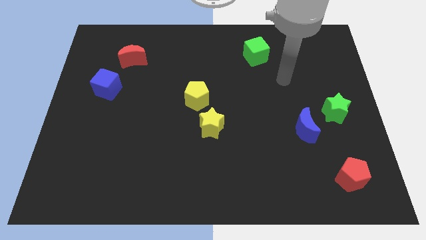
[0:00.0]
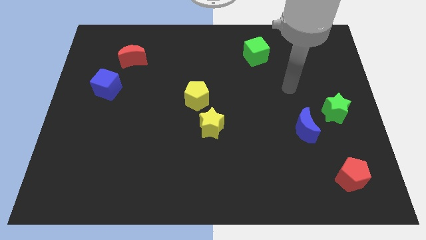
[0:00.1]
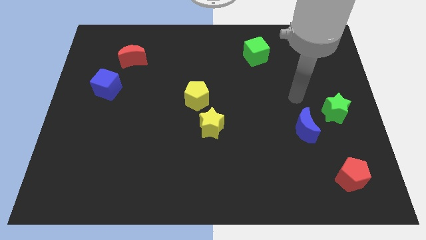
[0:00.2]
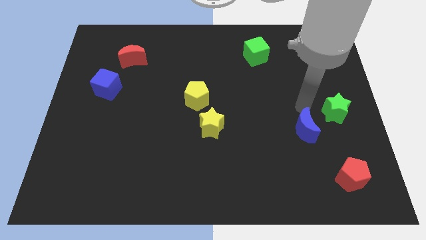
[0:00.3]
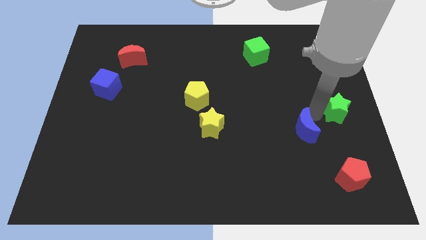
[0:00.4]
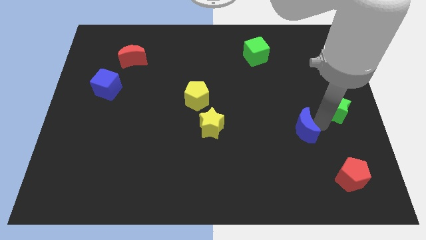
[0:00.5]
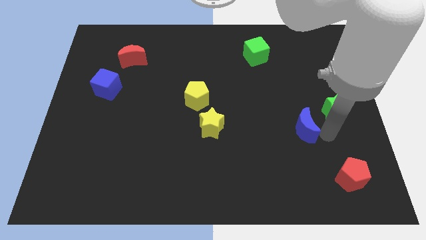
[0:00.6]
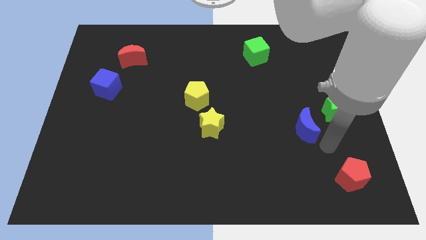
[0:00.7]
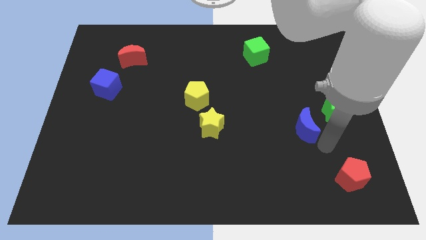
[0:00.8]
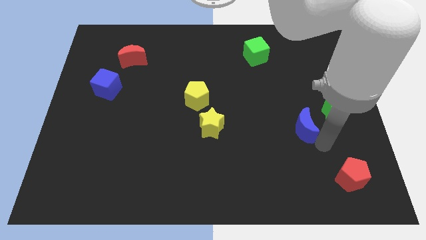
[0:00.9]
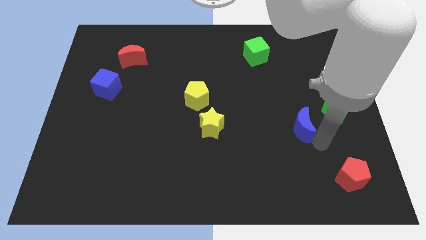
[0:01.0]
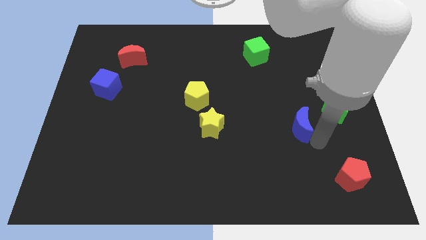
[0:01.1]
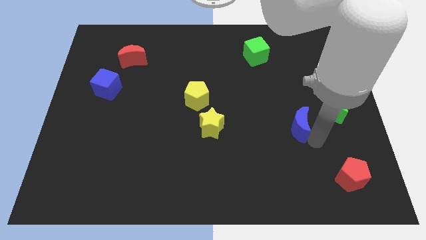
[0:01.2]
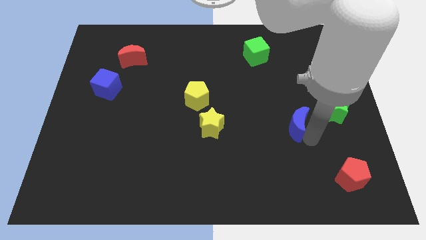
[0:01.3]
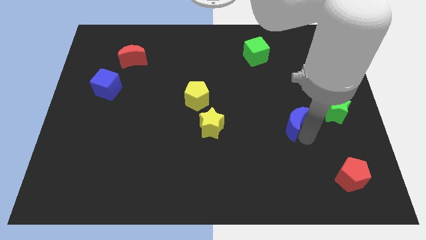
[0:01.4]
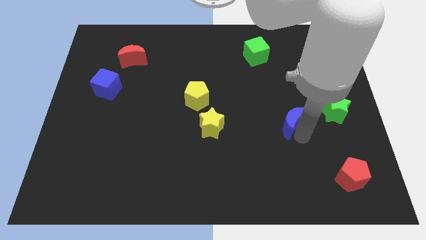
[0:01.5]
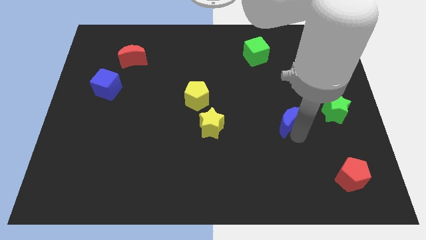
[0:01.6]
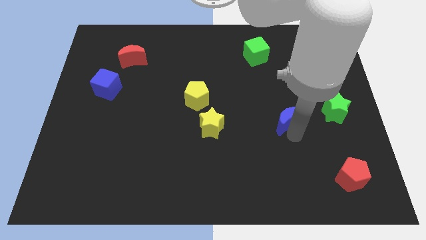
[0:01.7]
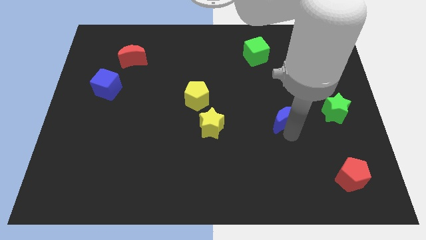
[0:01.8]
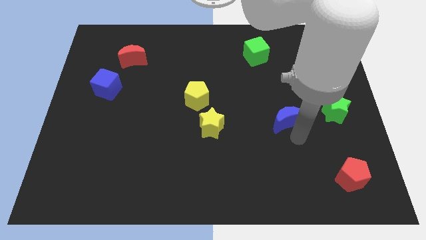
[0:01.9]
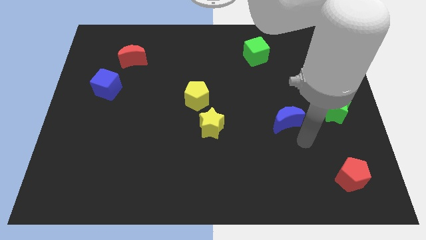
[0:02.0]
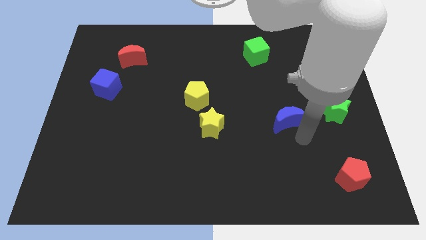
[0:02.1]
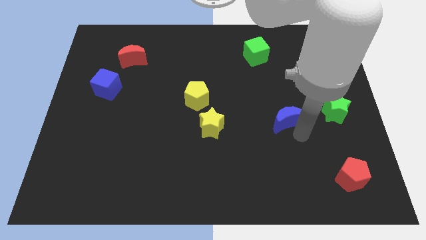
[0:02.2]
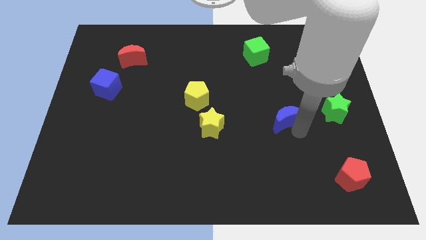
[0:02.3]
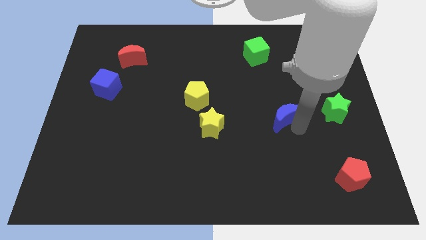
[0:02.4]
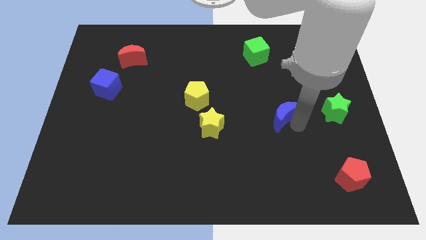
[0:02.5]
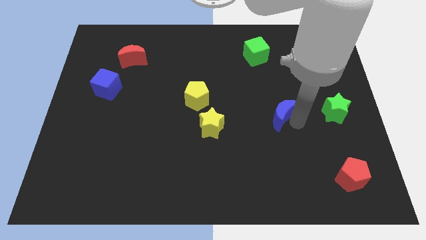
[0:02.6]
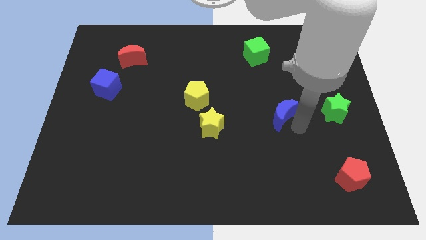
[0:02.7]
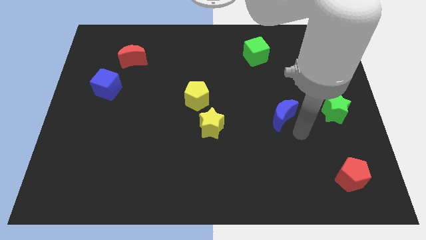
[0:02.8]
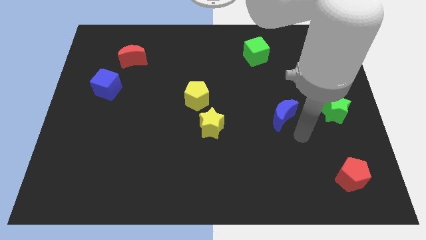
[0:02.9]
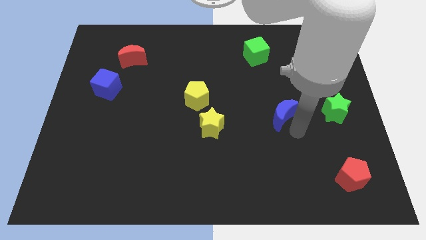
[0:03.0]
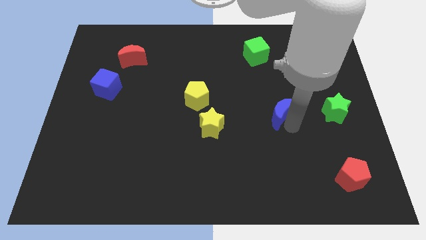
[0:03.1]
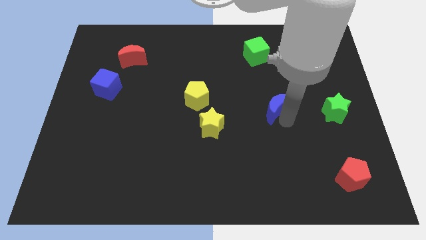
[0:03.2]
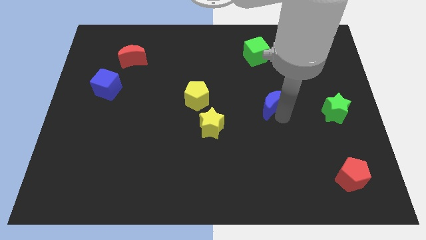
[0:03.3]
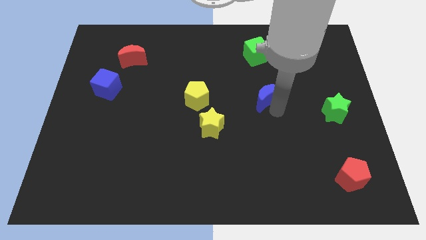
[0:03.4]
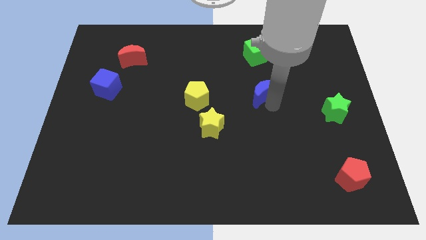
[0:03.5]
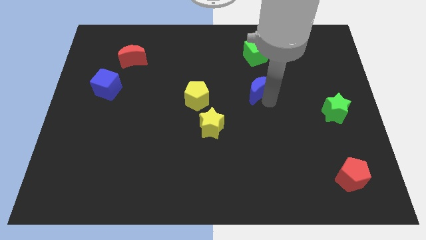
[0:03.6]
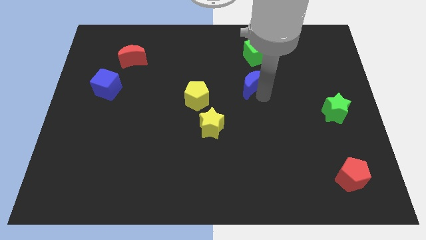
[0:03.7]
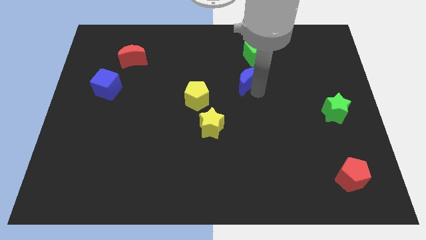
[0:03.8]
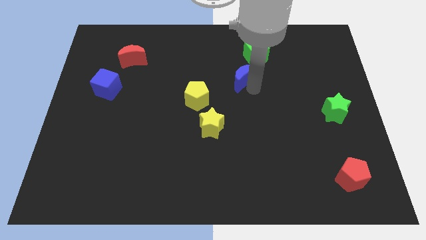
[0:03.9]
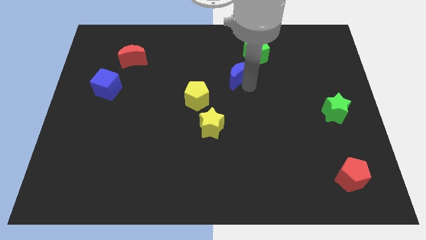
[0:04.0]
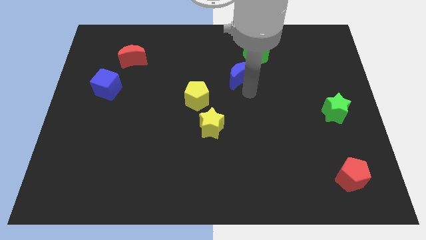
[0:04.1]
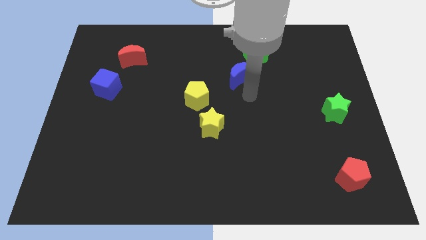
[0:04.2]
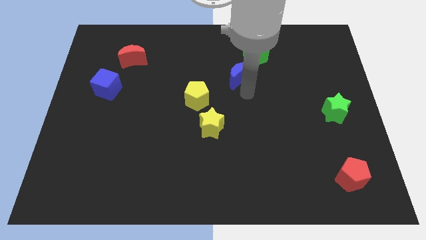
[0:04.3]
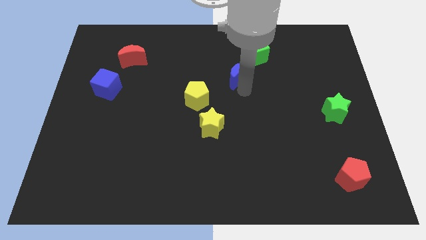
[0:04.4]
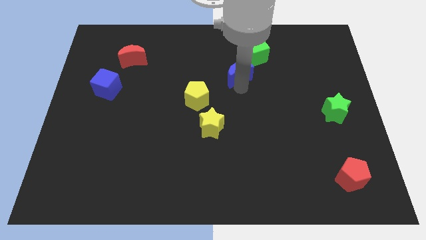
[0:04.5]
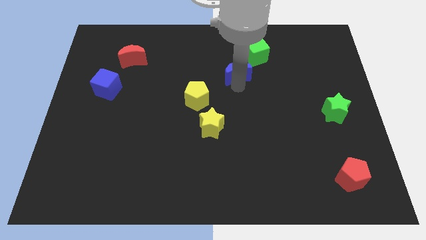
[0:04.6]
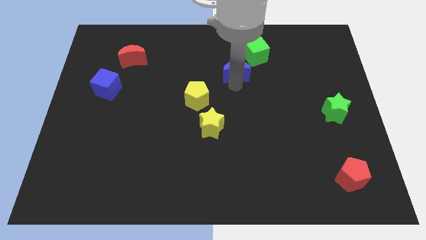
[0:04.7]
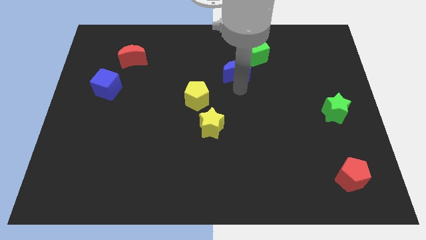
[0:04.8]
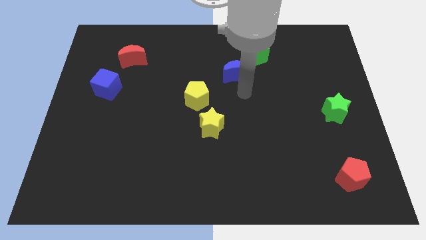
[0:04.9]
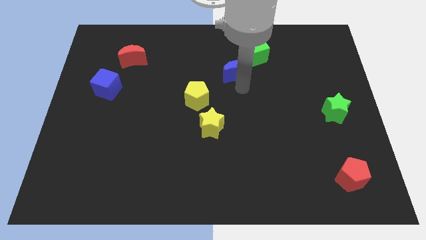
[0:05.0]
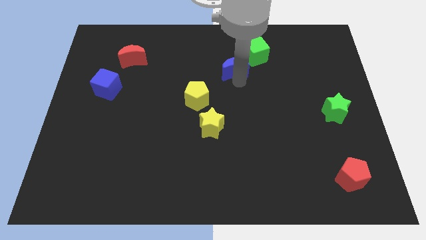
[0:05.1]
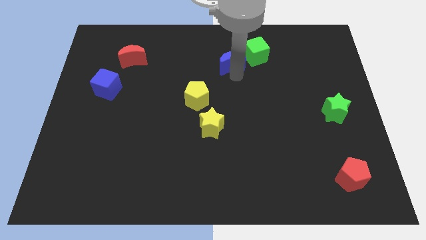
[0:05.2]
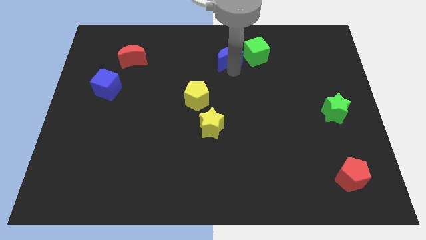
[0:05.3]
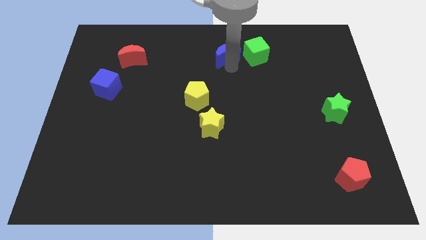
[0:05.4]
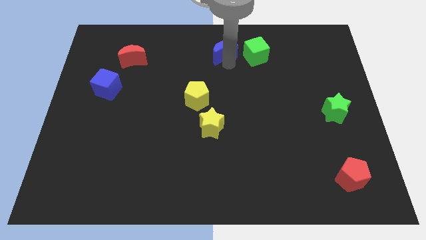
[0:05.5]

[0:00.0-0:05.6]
push the blue moon to the top side

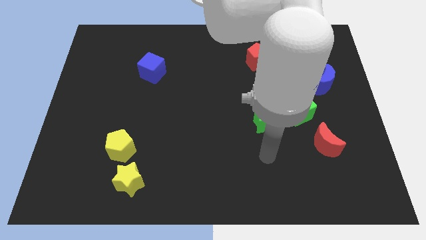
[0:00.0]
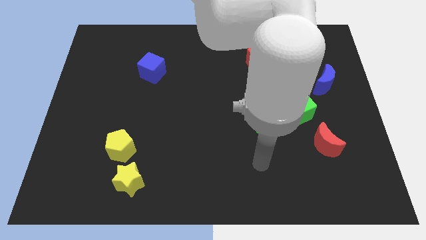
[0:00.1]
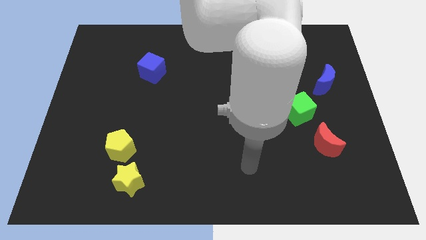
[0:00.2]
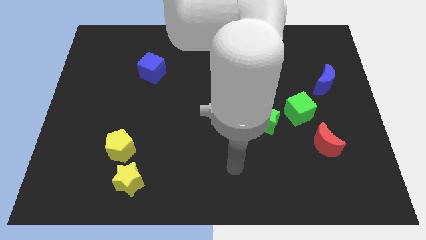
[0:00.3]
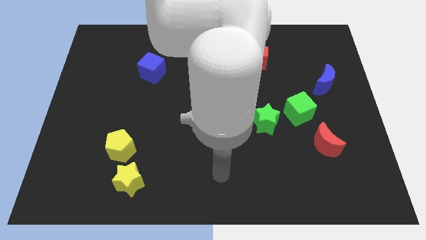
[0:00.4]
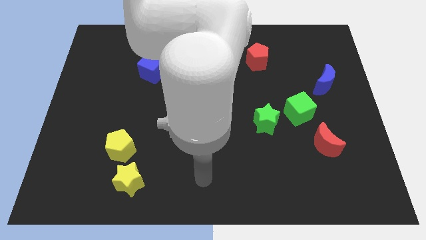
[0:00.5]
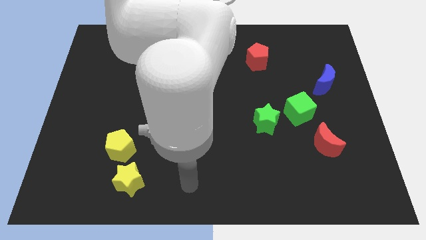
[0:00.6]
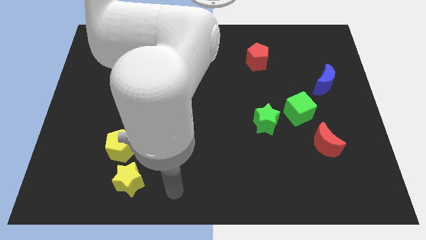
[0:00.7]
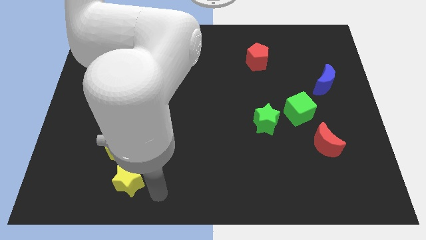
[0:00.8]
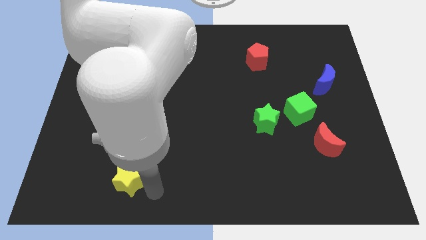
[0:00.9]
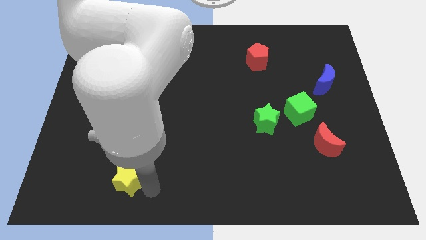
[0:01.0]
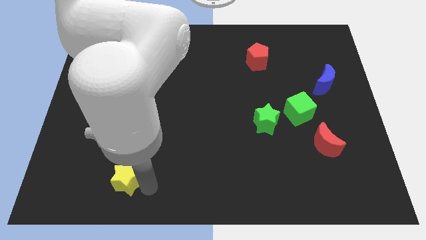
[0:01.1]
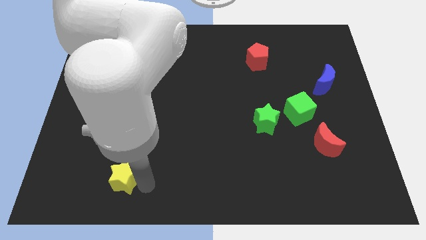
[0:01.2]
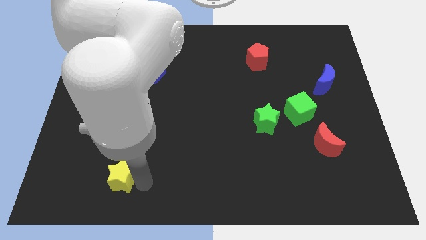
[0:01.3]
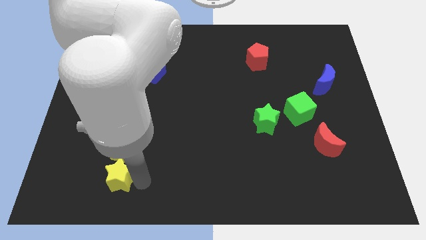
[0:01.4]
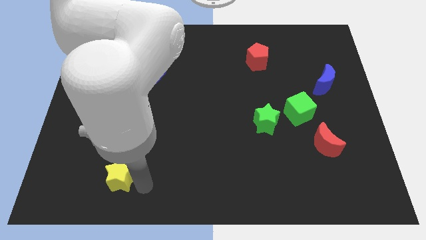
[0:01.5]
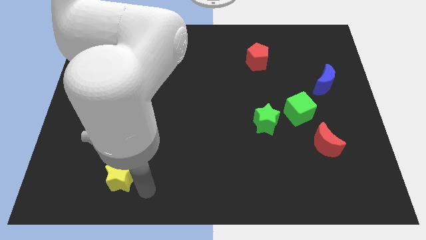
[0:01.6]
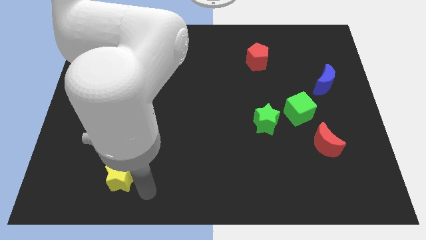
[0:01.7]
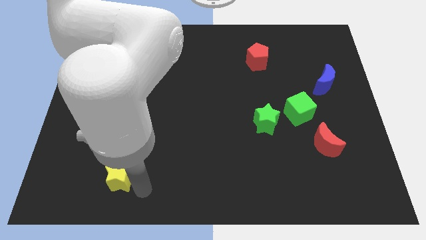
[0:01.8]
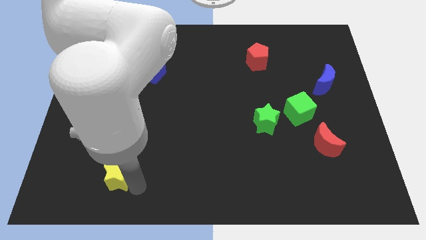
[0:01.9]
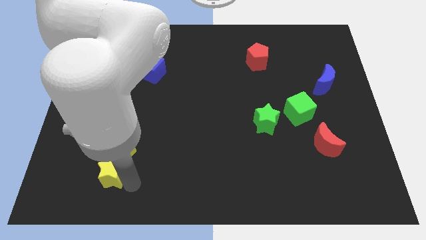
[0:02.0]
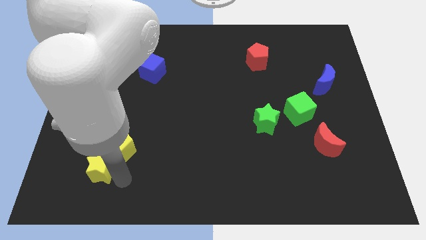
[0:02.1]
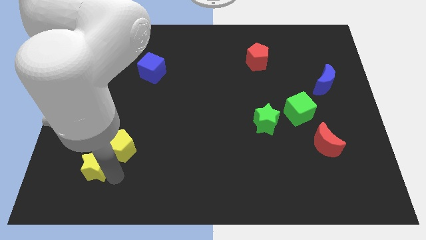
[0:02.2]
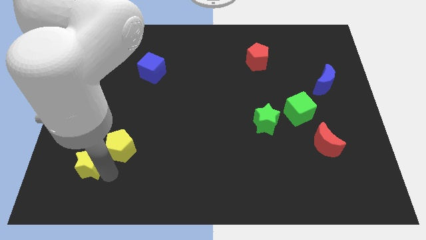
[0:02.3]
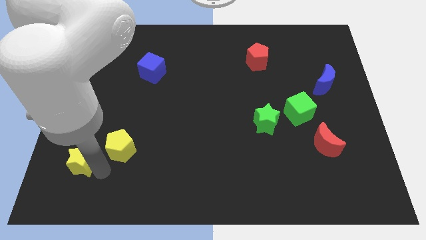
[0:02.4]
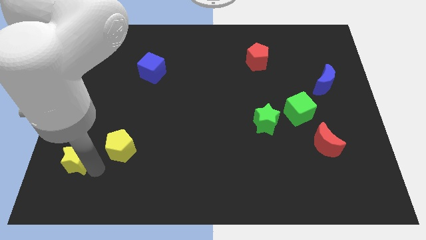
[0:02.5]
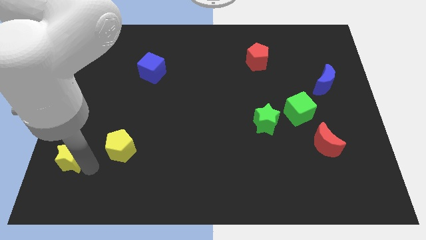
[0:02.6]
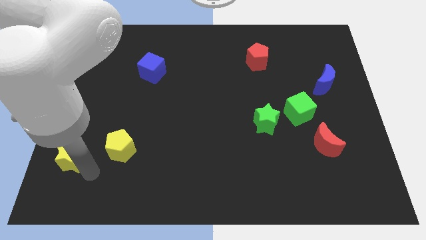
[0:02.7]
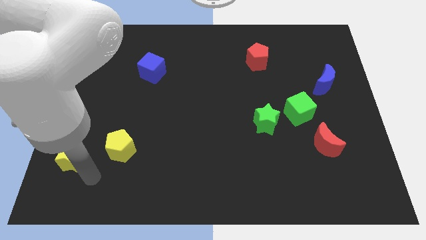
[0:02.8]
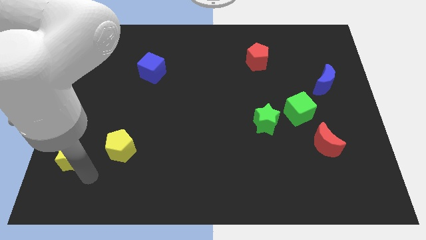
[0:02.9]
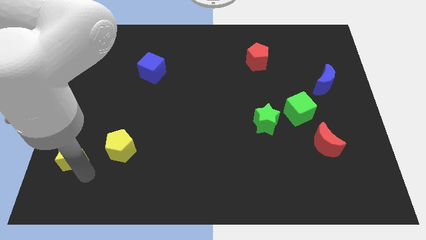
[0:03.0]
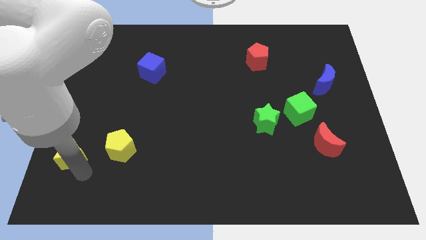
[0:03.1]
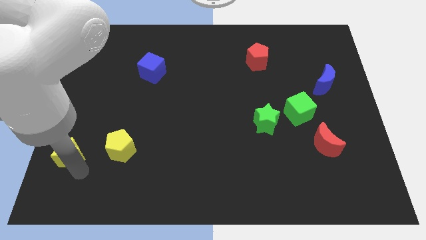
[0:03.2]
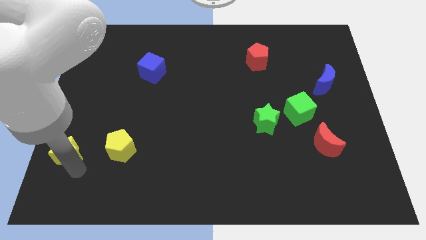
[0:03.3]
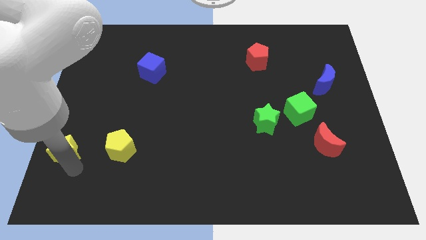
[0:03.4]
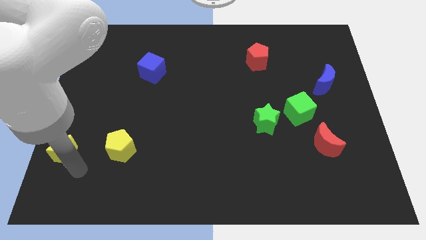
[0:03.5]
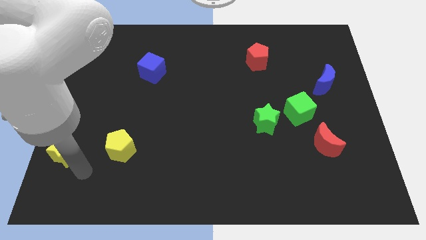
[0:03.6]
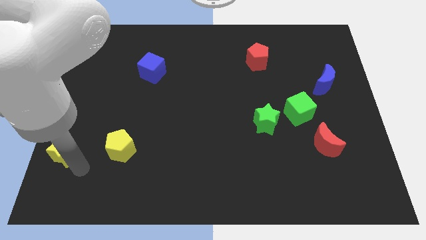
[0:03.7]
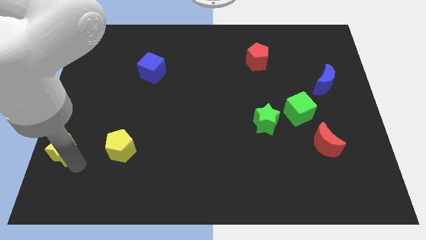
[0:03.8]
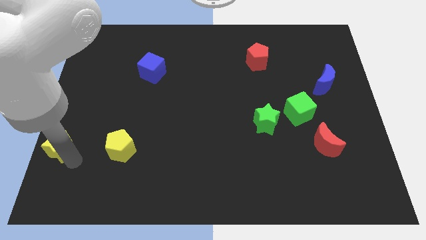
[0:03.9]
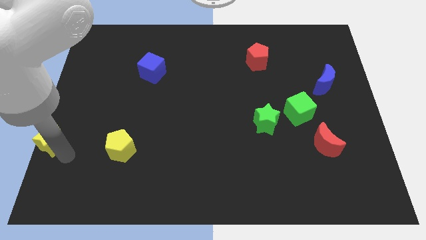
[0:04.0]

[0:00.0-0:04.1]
push the yellow star to the left side
